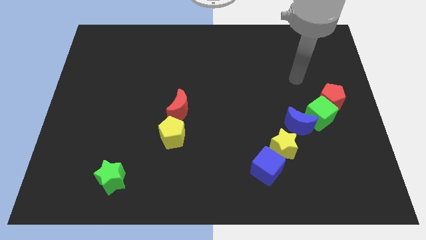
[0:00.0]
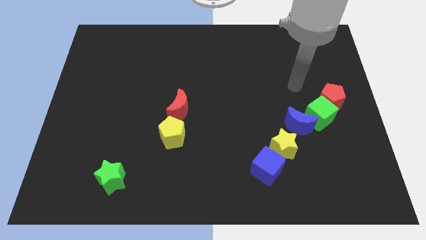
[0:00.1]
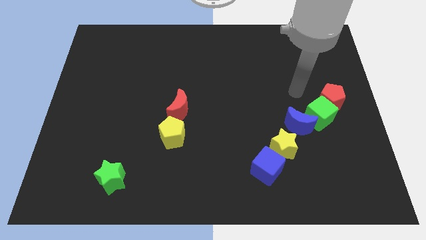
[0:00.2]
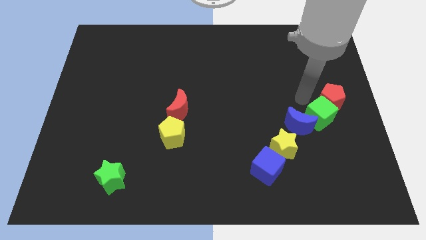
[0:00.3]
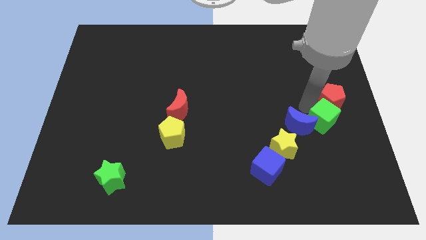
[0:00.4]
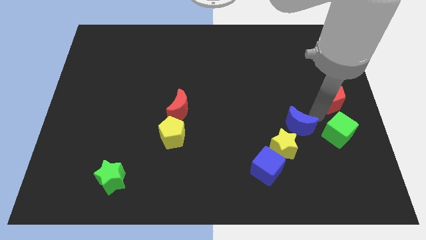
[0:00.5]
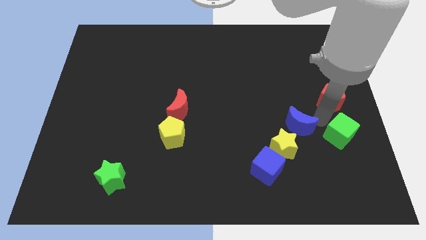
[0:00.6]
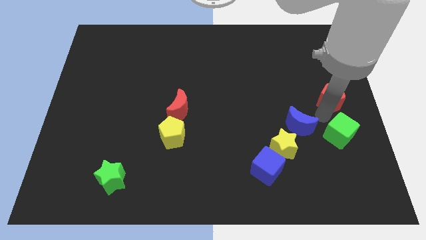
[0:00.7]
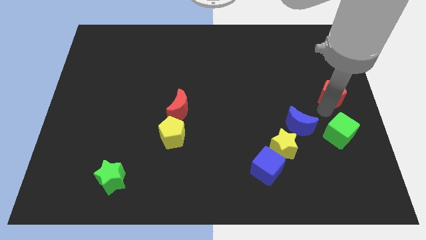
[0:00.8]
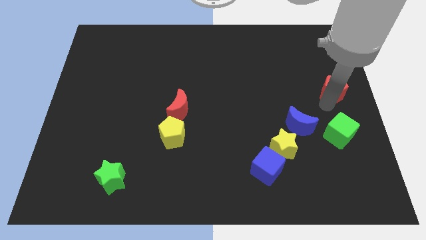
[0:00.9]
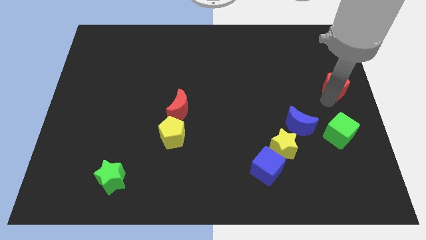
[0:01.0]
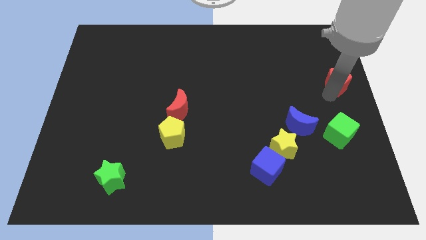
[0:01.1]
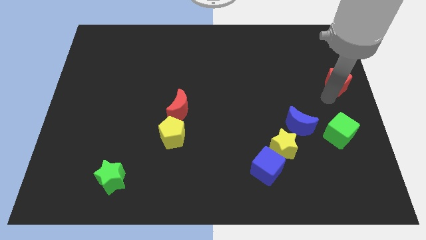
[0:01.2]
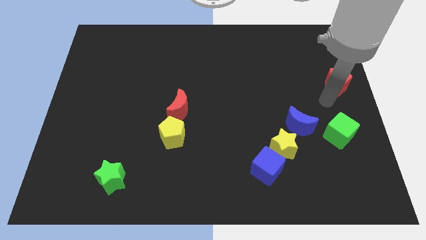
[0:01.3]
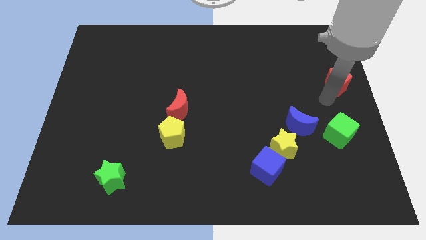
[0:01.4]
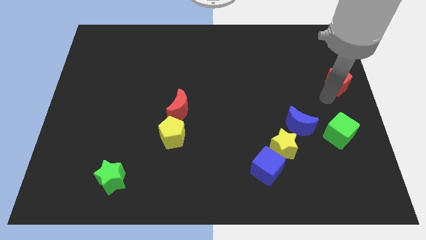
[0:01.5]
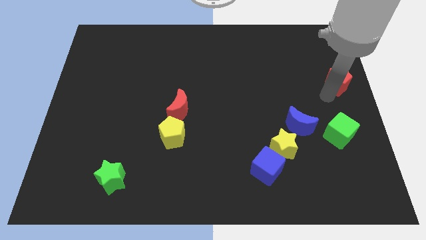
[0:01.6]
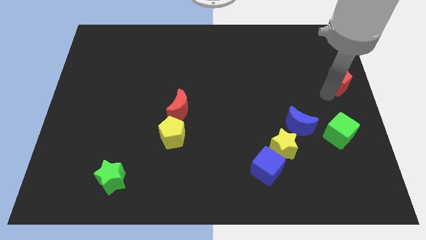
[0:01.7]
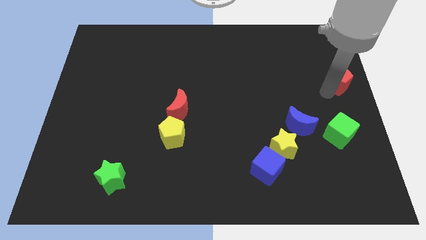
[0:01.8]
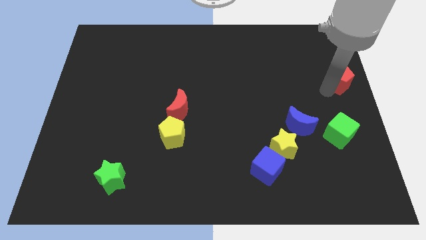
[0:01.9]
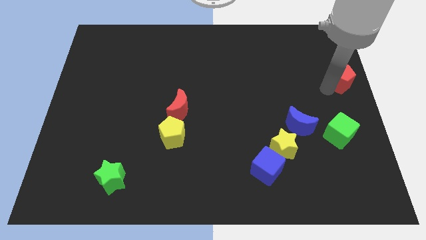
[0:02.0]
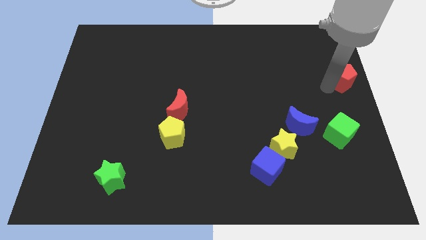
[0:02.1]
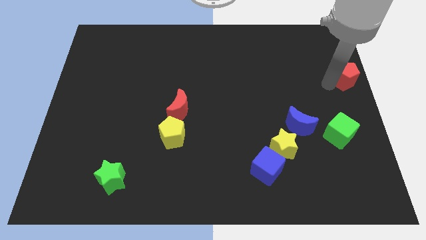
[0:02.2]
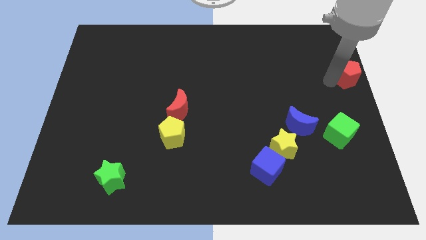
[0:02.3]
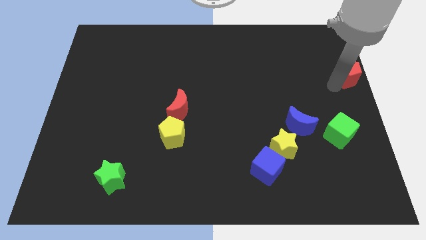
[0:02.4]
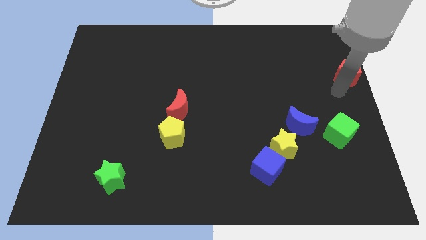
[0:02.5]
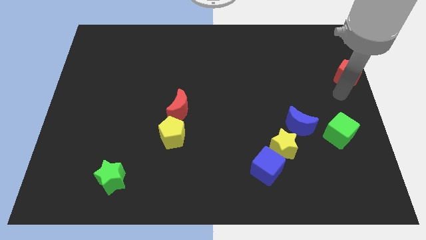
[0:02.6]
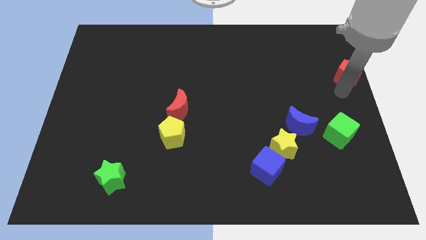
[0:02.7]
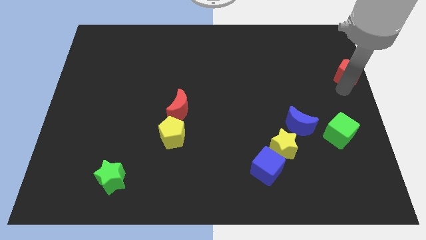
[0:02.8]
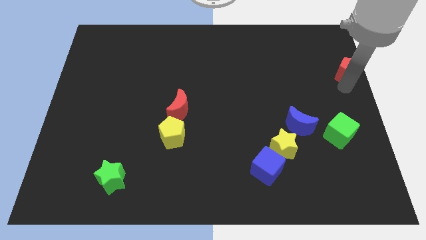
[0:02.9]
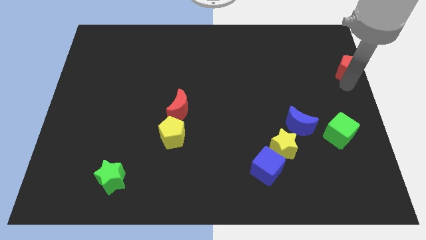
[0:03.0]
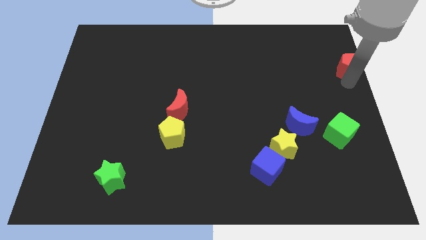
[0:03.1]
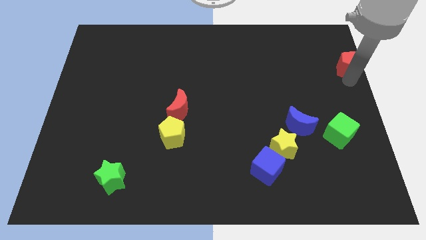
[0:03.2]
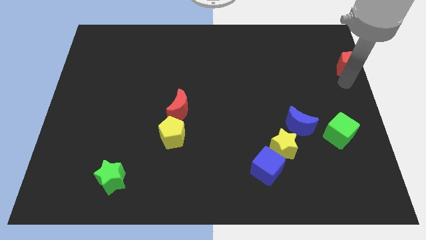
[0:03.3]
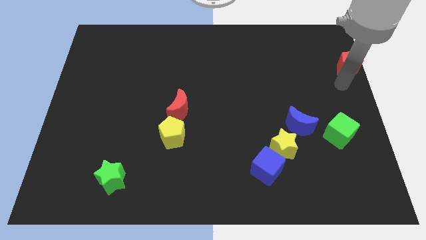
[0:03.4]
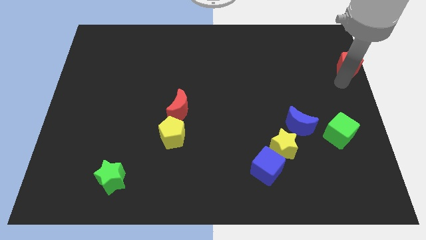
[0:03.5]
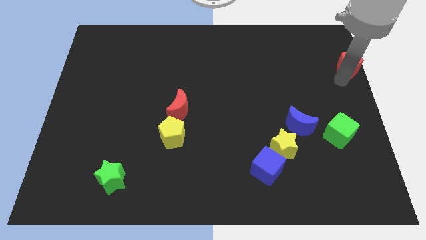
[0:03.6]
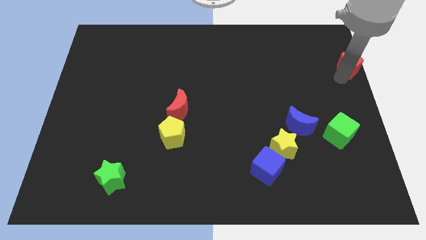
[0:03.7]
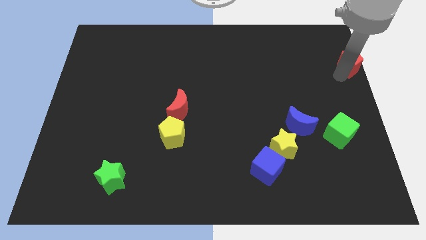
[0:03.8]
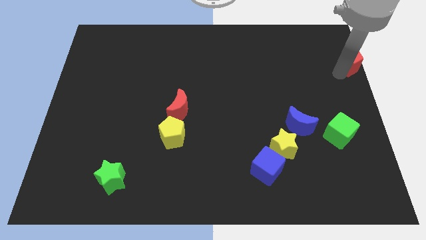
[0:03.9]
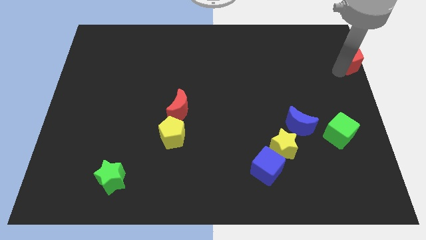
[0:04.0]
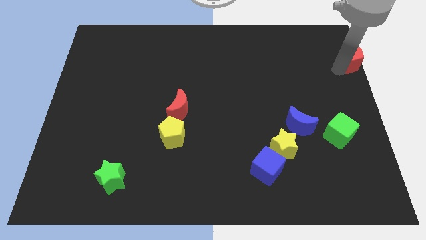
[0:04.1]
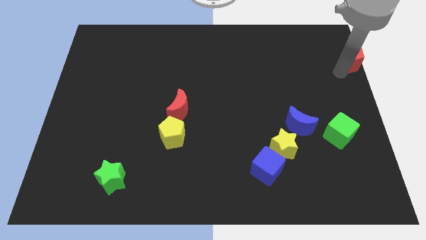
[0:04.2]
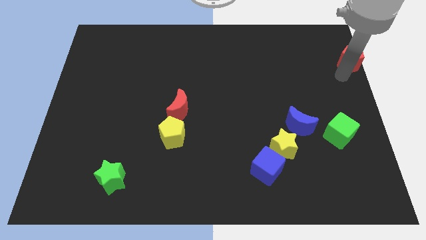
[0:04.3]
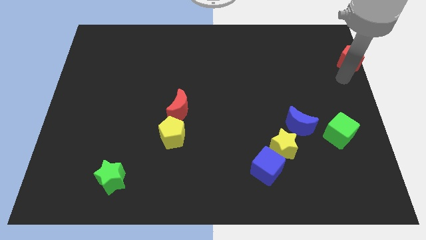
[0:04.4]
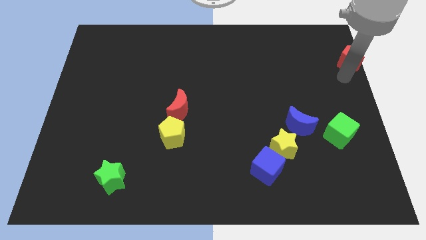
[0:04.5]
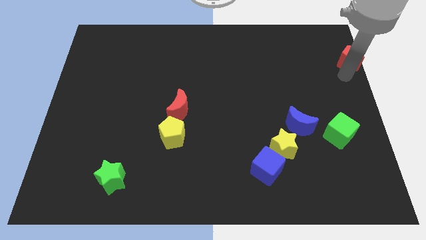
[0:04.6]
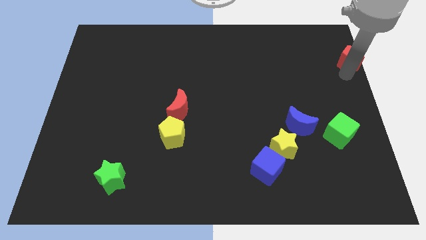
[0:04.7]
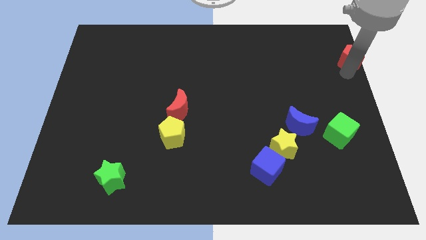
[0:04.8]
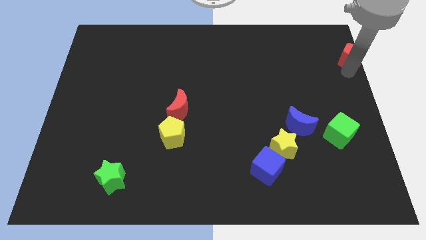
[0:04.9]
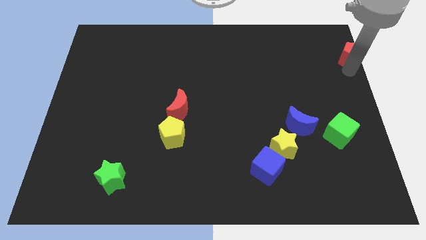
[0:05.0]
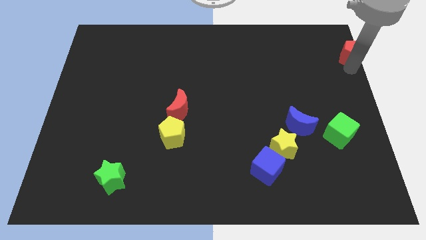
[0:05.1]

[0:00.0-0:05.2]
move the red pentagon to the top right

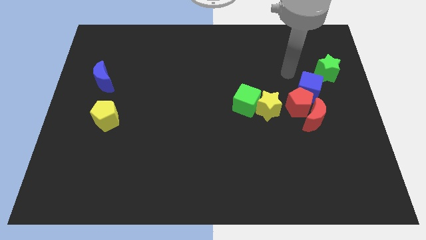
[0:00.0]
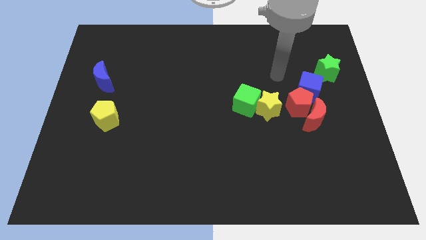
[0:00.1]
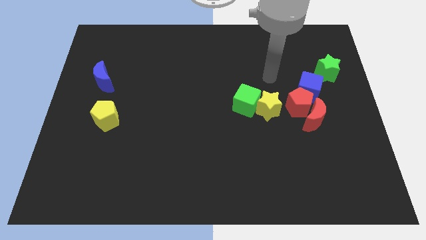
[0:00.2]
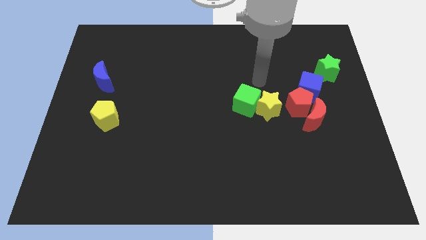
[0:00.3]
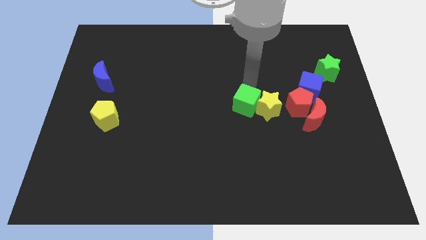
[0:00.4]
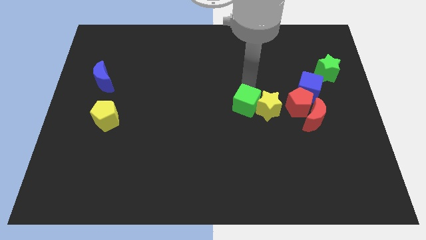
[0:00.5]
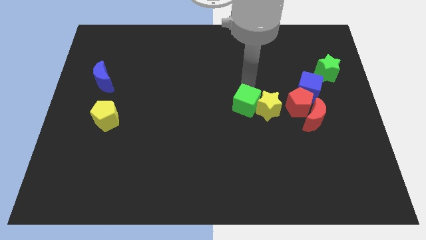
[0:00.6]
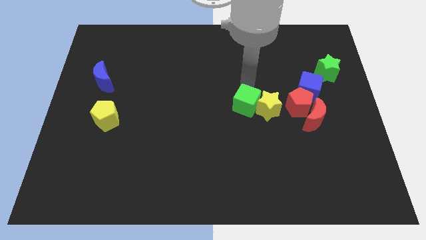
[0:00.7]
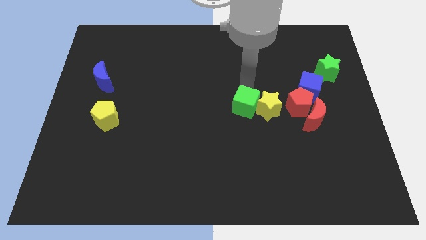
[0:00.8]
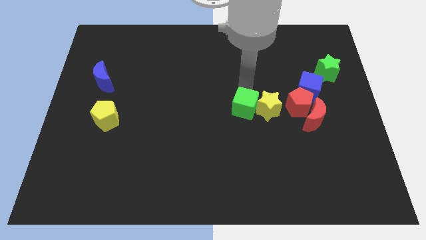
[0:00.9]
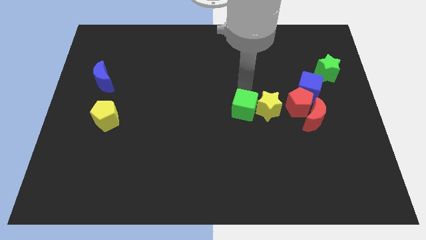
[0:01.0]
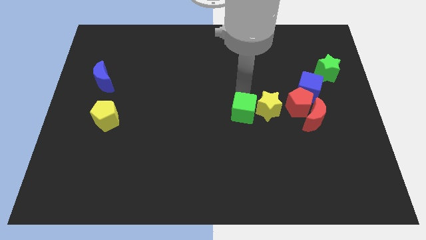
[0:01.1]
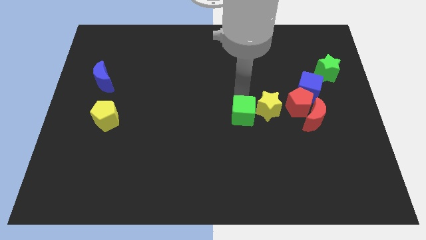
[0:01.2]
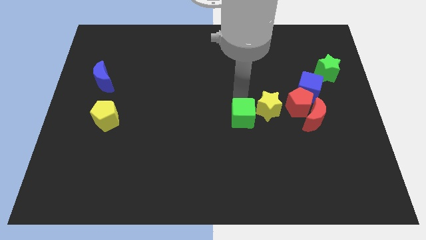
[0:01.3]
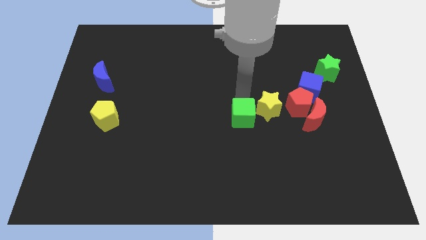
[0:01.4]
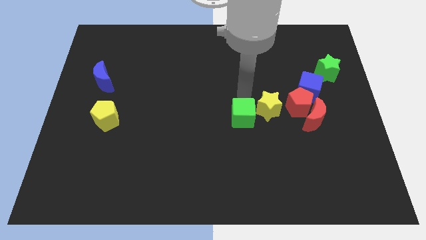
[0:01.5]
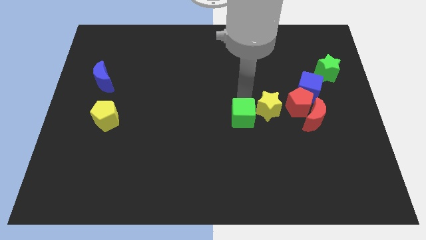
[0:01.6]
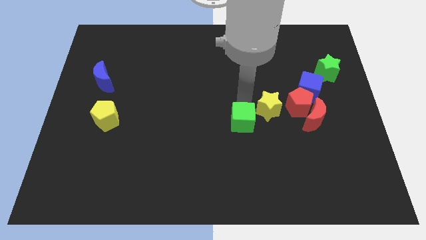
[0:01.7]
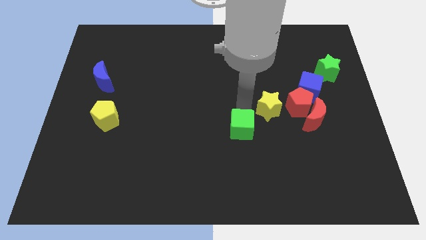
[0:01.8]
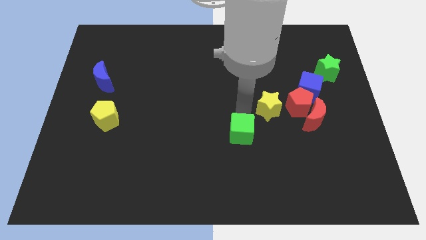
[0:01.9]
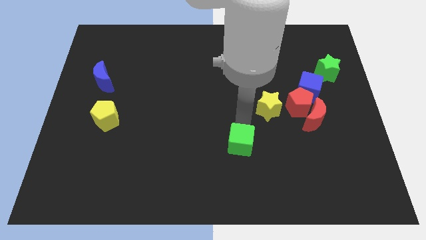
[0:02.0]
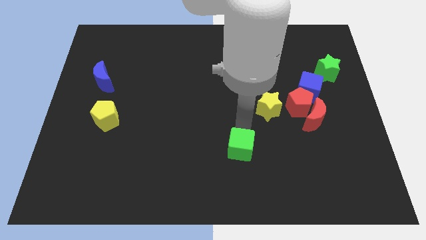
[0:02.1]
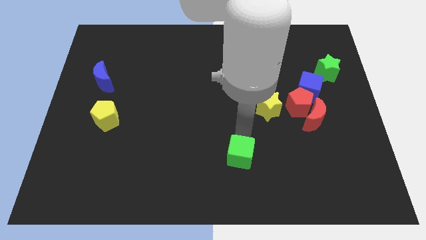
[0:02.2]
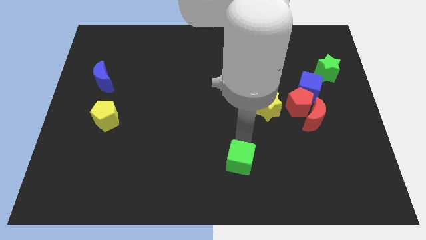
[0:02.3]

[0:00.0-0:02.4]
move the green cube to the bottom
